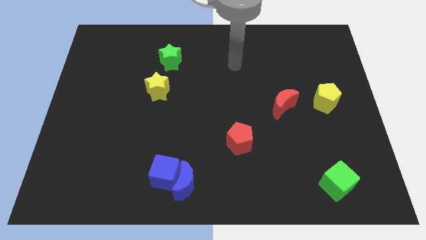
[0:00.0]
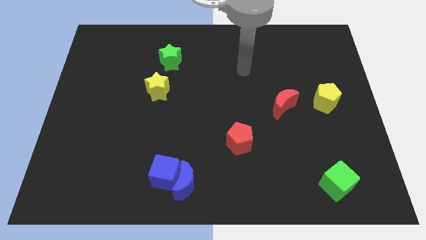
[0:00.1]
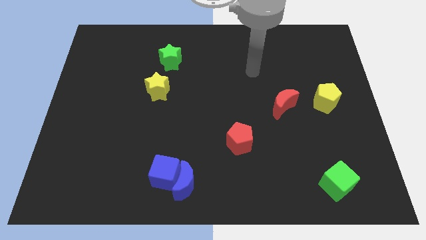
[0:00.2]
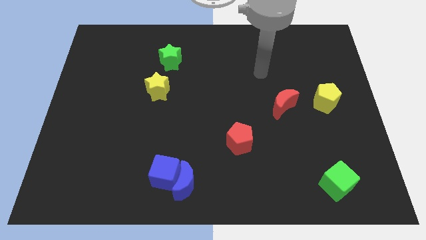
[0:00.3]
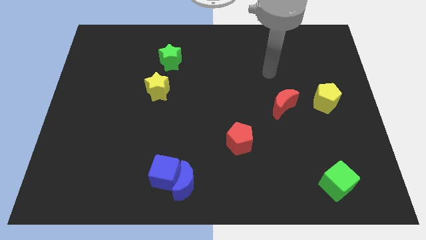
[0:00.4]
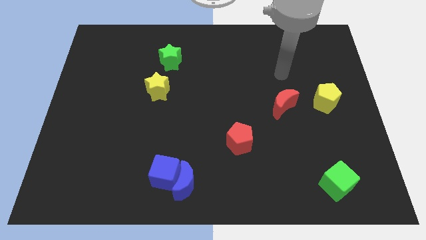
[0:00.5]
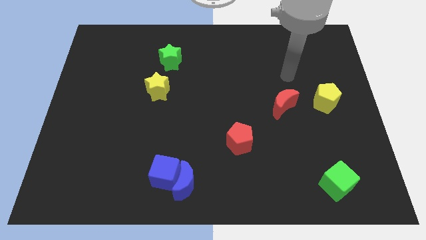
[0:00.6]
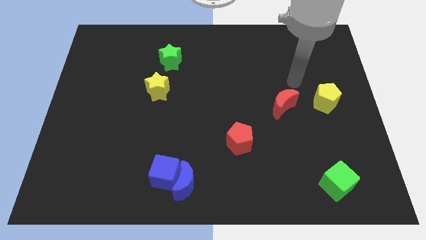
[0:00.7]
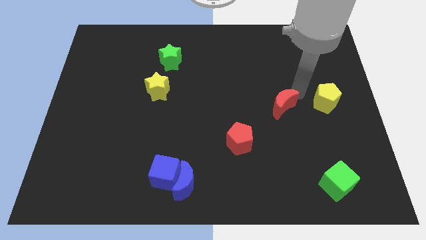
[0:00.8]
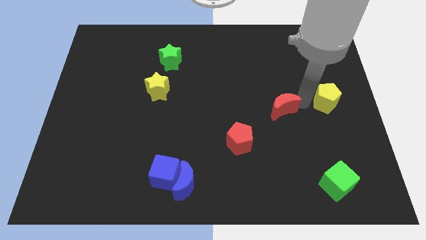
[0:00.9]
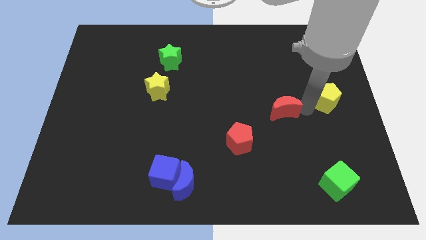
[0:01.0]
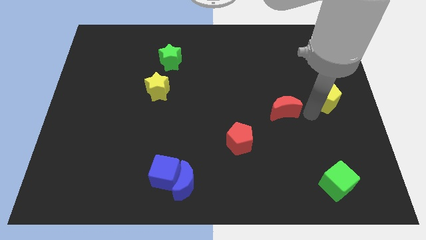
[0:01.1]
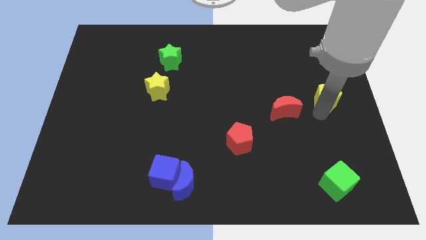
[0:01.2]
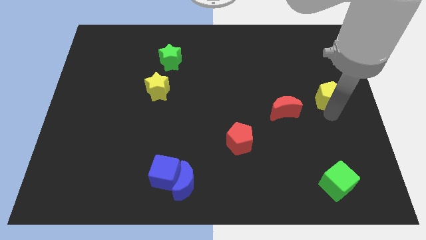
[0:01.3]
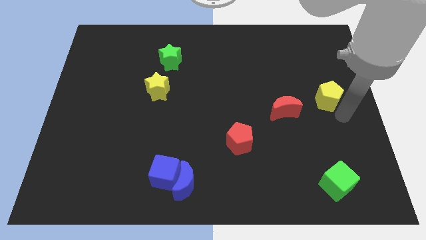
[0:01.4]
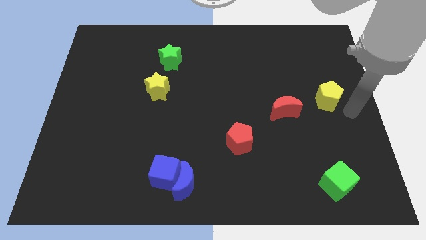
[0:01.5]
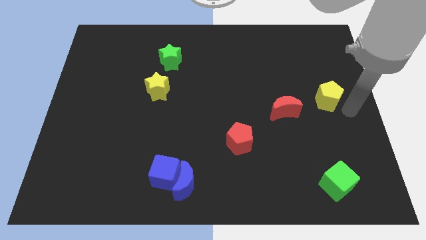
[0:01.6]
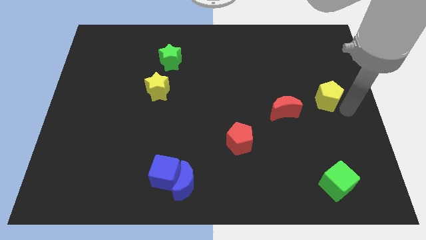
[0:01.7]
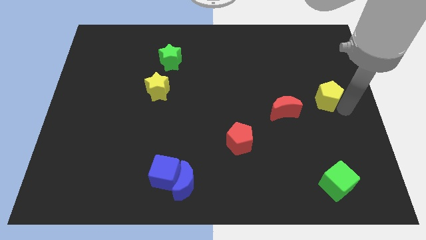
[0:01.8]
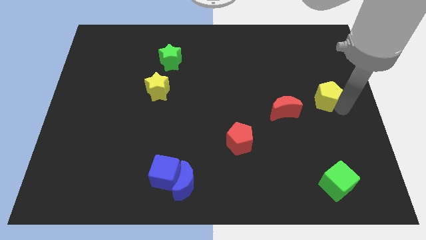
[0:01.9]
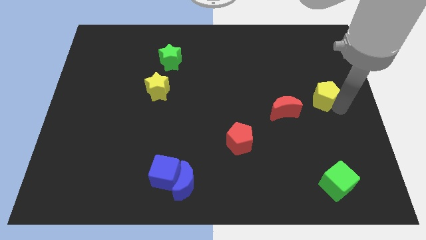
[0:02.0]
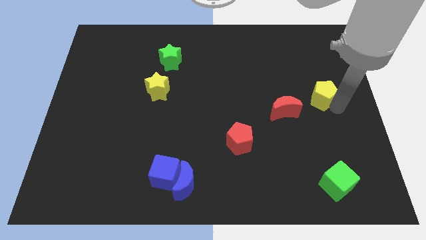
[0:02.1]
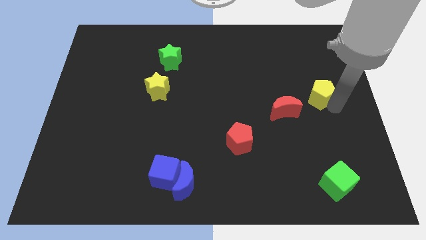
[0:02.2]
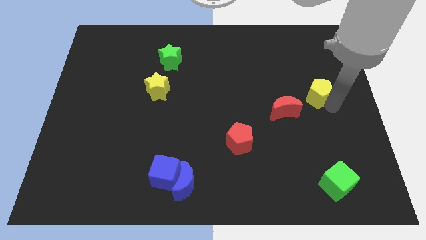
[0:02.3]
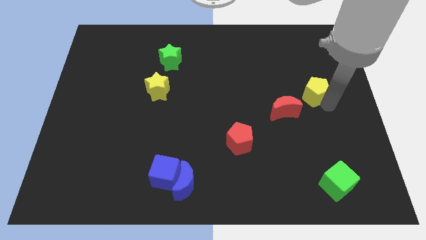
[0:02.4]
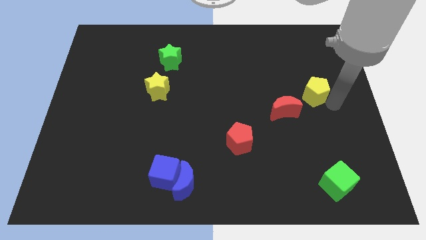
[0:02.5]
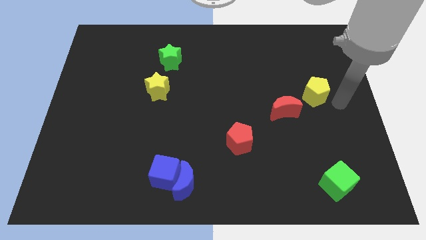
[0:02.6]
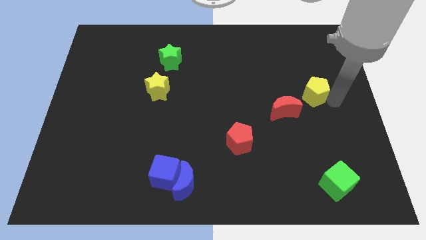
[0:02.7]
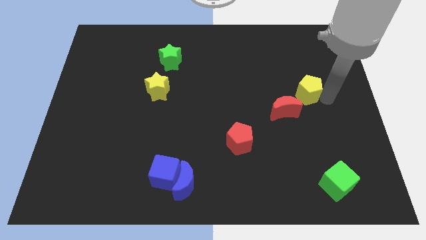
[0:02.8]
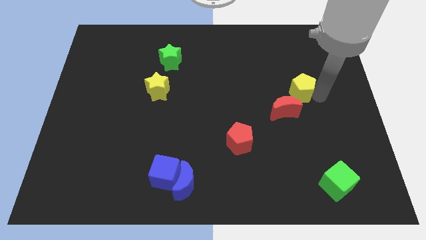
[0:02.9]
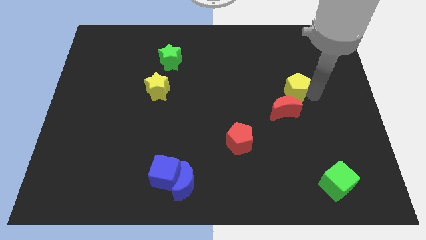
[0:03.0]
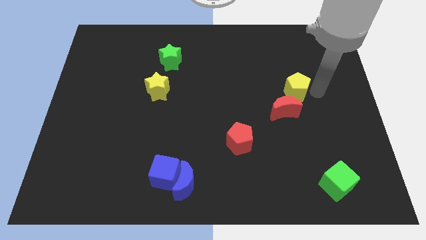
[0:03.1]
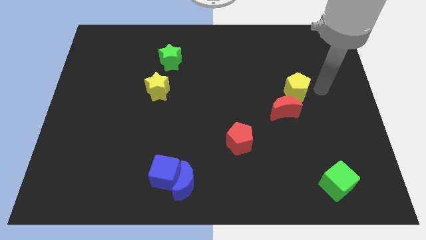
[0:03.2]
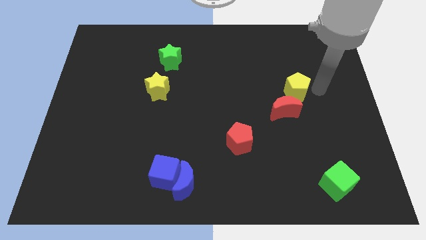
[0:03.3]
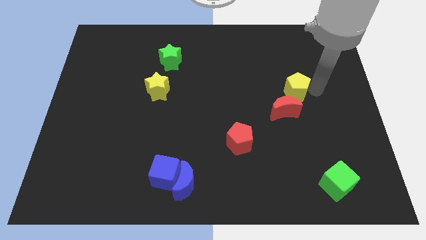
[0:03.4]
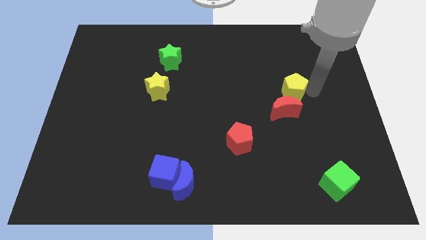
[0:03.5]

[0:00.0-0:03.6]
slightly push the yellow pentagon left

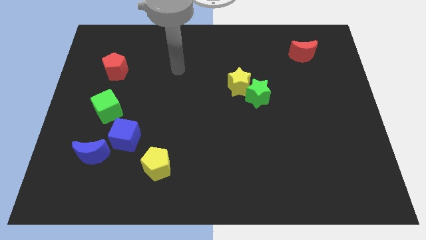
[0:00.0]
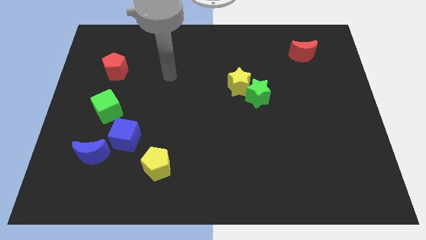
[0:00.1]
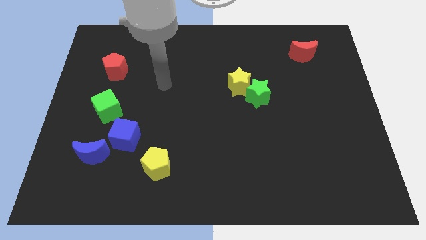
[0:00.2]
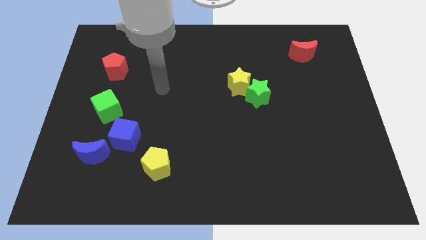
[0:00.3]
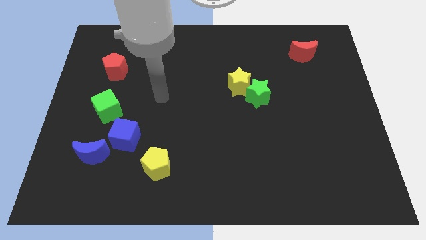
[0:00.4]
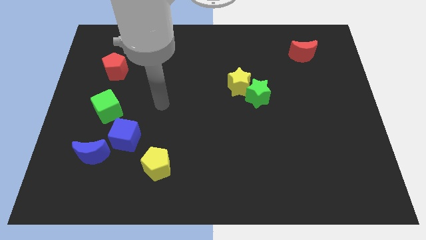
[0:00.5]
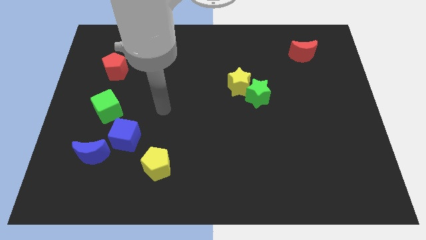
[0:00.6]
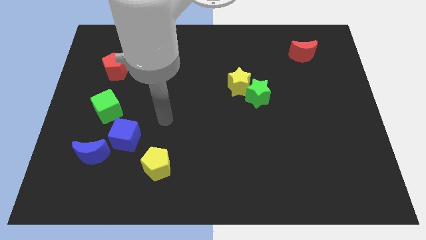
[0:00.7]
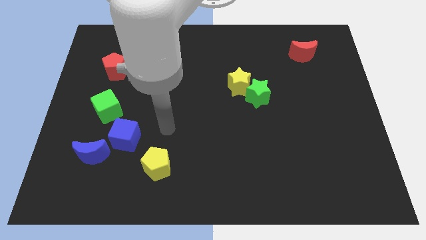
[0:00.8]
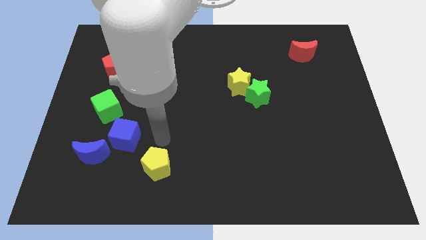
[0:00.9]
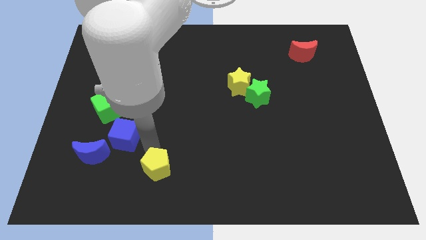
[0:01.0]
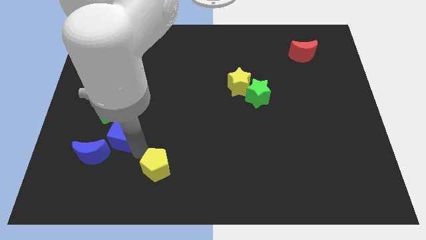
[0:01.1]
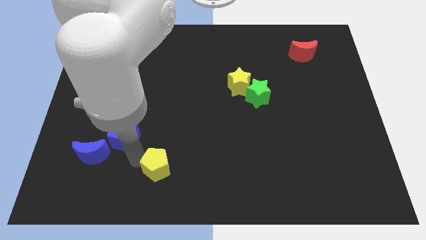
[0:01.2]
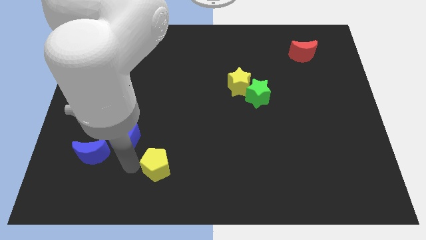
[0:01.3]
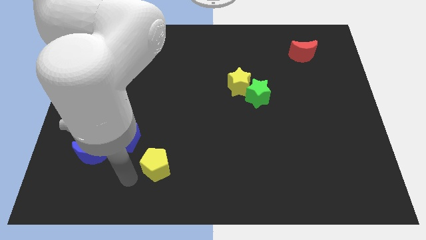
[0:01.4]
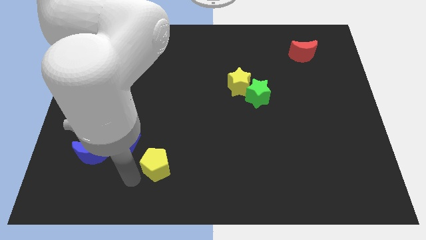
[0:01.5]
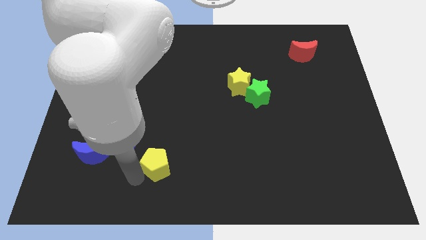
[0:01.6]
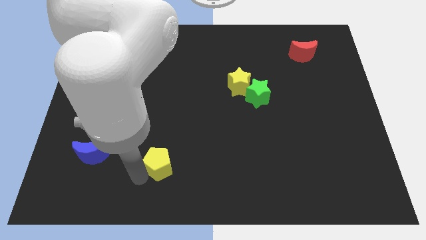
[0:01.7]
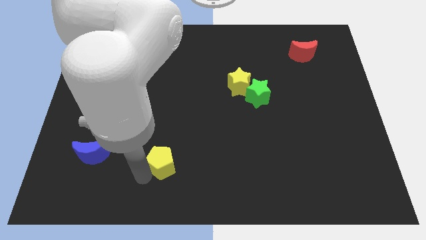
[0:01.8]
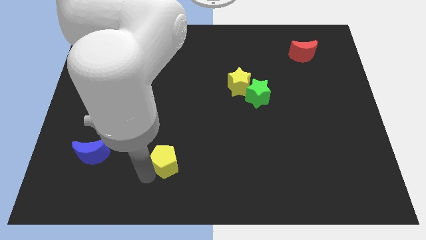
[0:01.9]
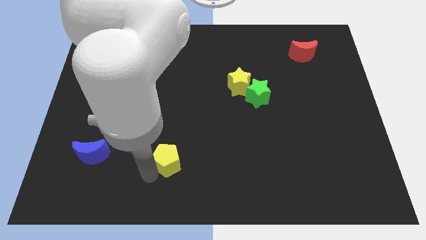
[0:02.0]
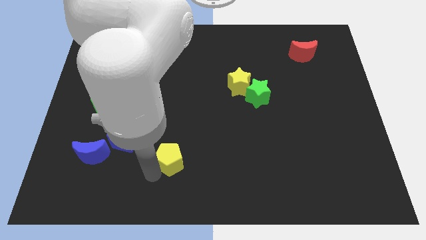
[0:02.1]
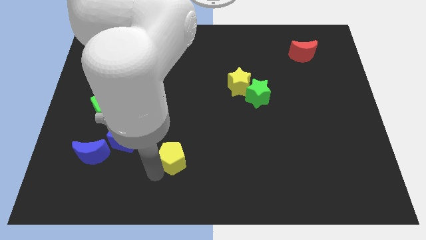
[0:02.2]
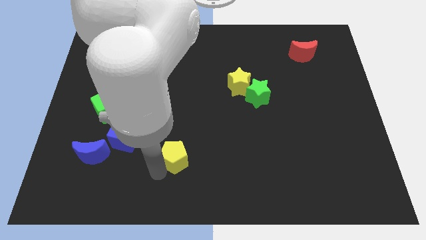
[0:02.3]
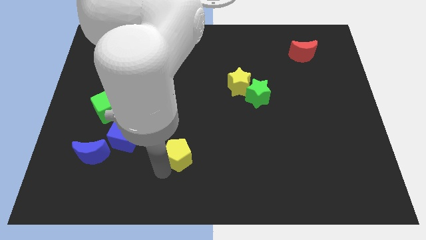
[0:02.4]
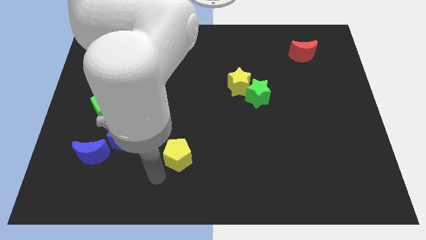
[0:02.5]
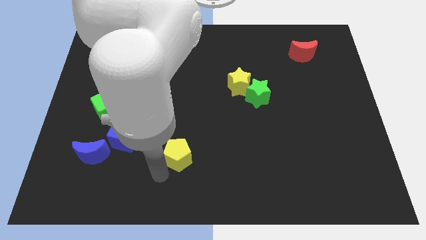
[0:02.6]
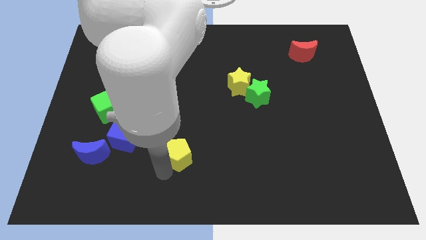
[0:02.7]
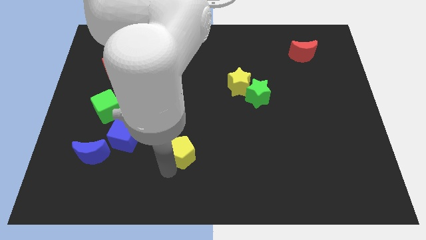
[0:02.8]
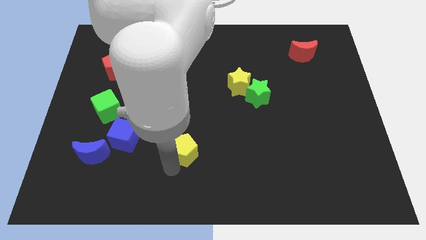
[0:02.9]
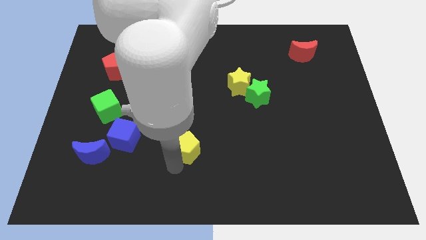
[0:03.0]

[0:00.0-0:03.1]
move the yellow pentagon up and right diagonally somewhat

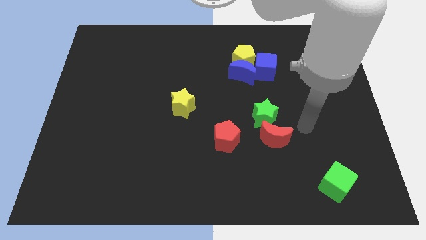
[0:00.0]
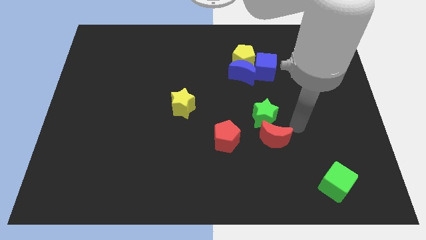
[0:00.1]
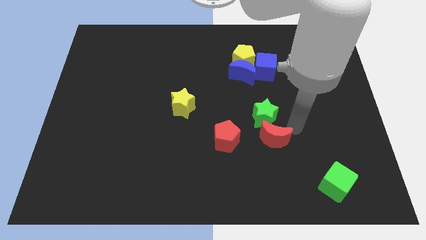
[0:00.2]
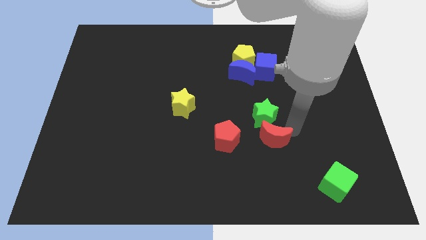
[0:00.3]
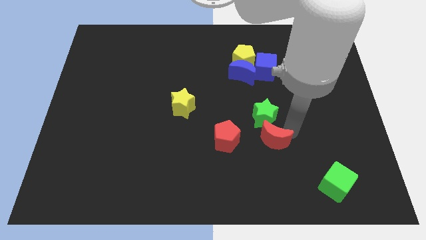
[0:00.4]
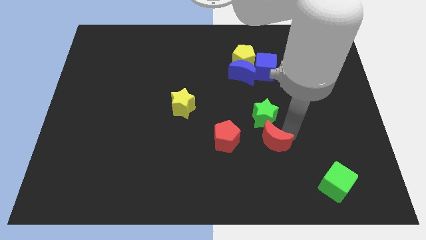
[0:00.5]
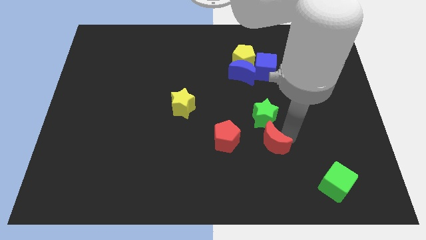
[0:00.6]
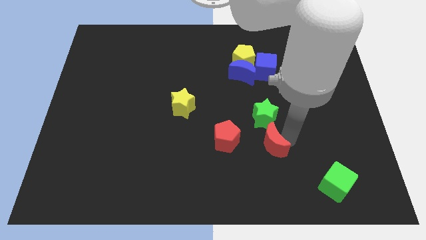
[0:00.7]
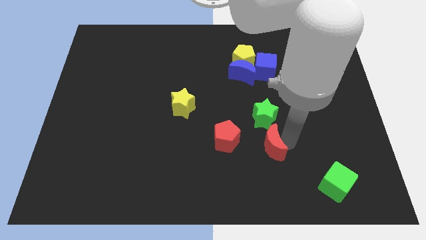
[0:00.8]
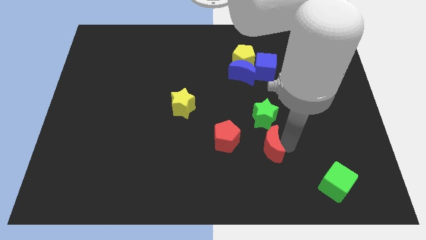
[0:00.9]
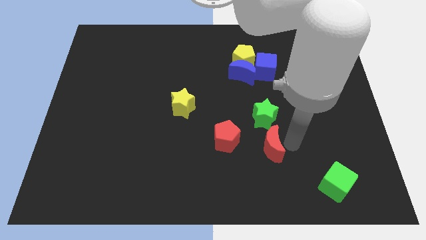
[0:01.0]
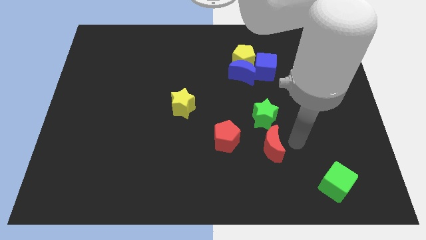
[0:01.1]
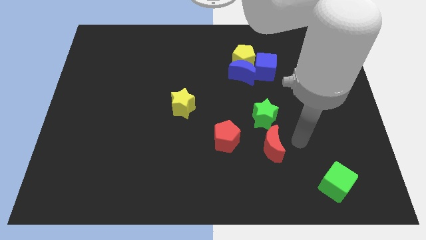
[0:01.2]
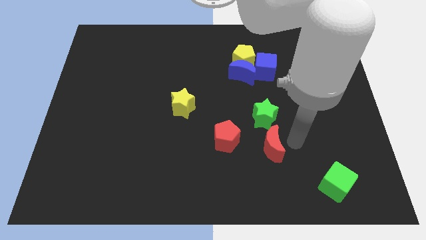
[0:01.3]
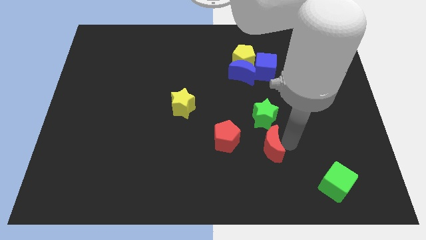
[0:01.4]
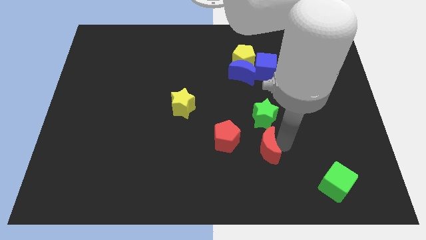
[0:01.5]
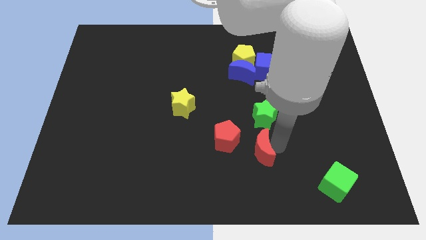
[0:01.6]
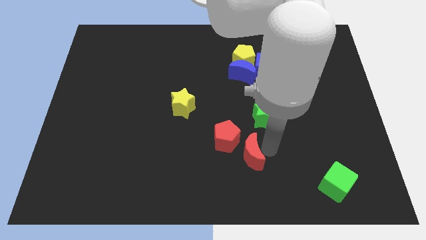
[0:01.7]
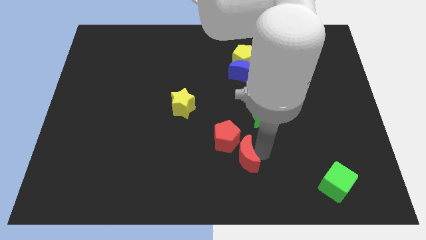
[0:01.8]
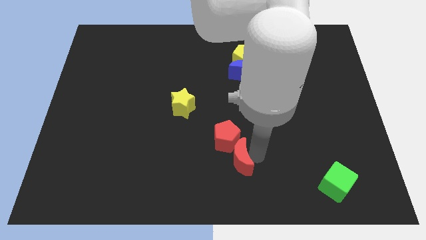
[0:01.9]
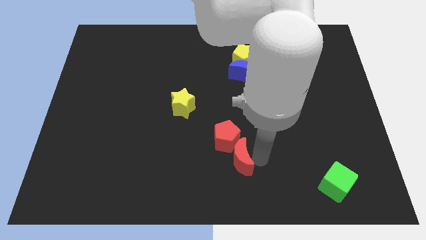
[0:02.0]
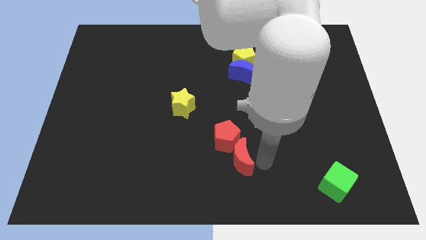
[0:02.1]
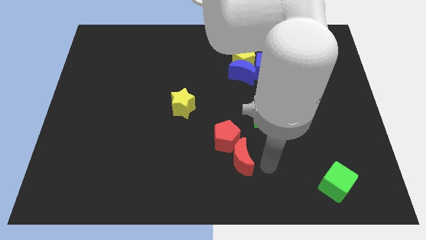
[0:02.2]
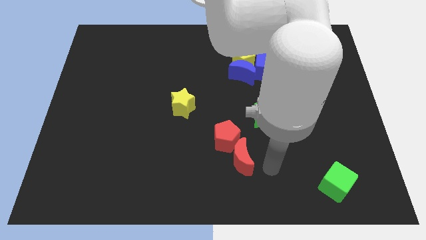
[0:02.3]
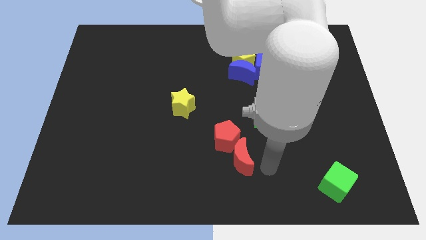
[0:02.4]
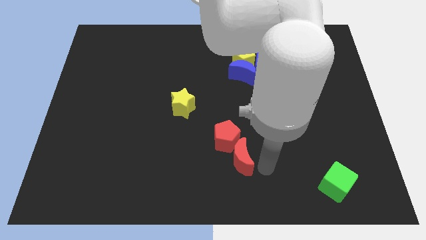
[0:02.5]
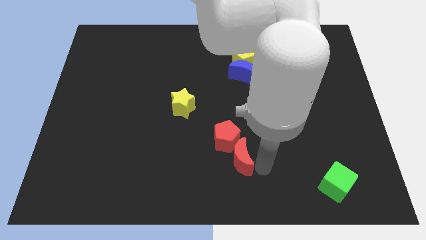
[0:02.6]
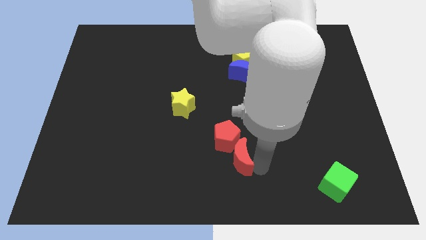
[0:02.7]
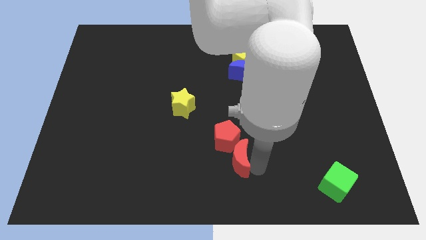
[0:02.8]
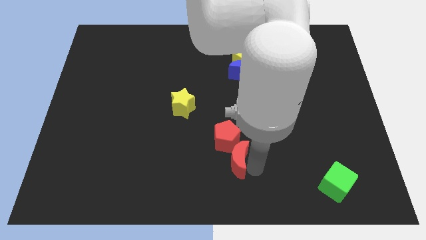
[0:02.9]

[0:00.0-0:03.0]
move the red moon slightly left
